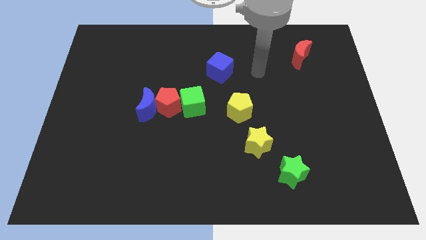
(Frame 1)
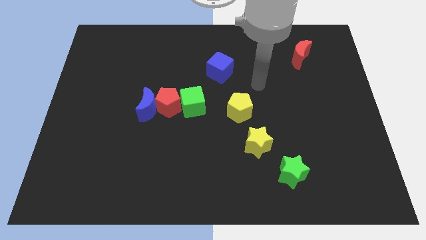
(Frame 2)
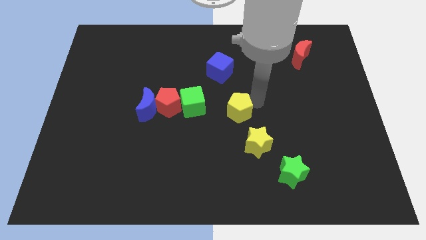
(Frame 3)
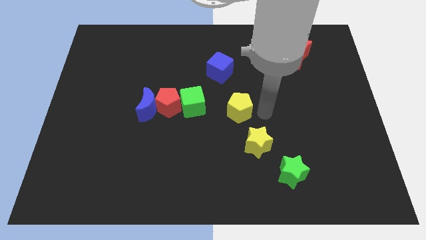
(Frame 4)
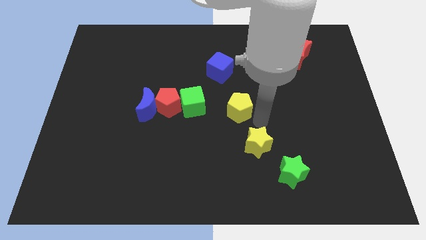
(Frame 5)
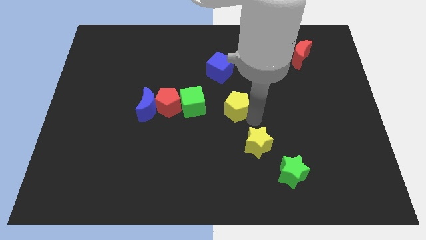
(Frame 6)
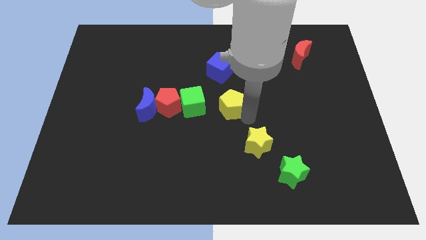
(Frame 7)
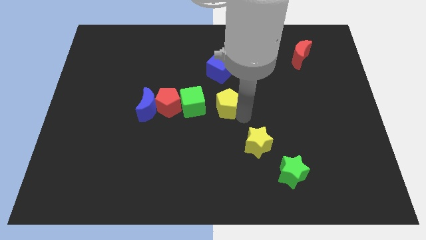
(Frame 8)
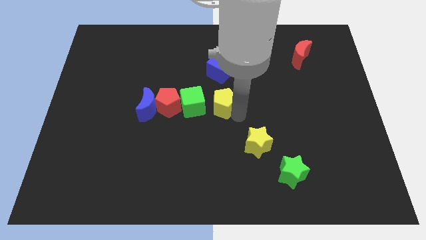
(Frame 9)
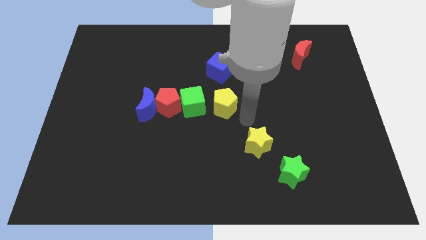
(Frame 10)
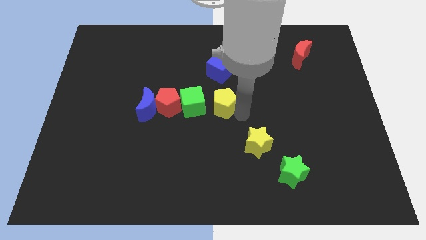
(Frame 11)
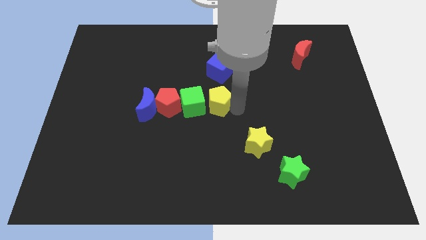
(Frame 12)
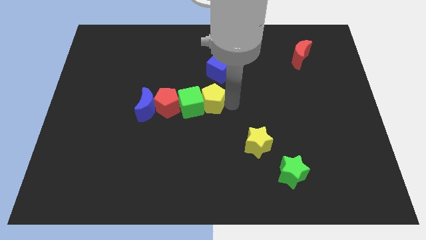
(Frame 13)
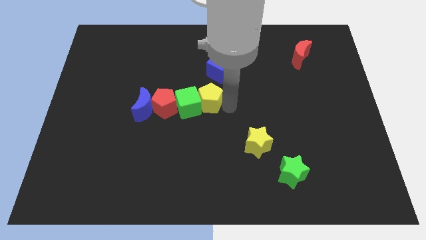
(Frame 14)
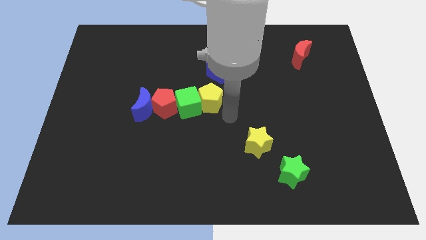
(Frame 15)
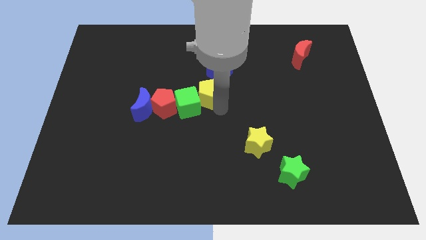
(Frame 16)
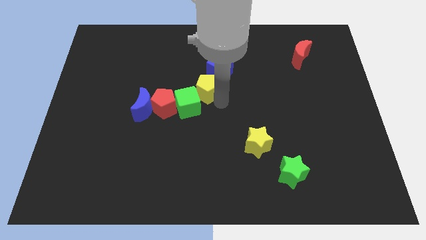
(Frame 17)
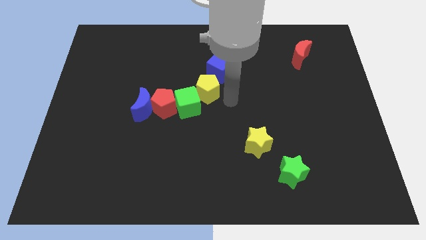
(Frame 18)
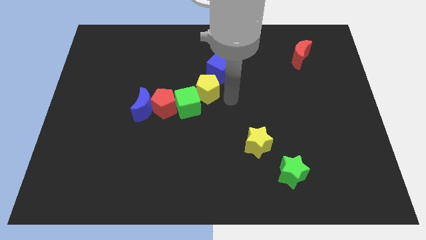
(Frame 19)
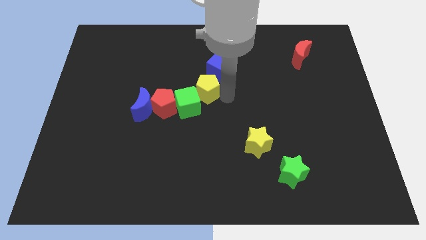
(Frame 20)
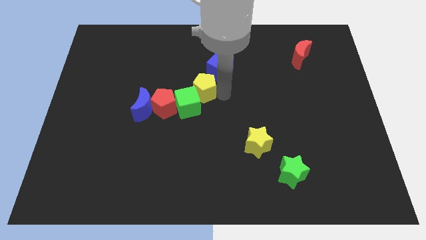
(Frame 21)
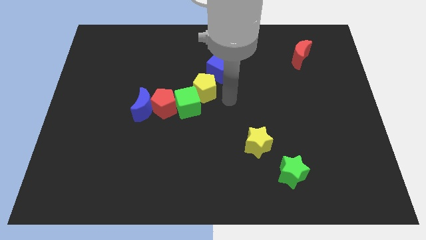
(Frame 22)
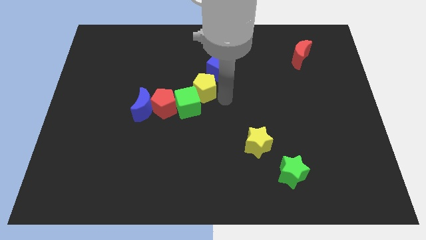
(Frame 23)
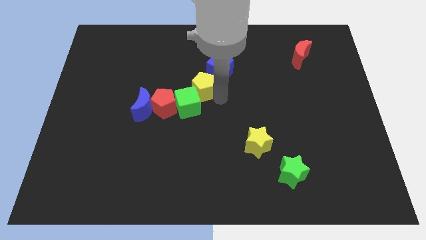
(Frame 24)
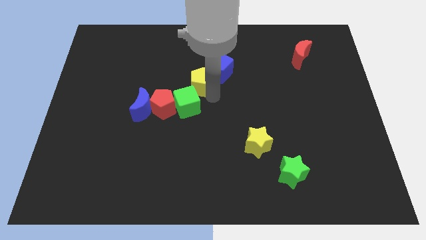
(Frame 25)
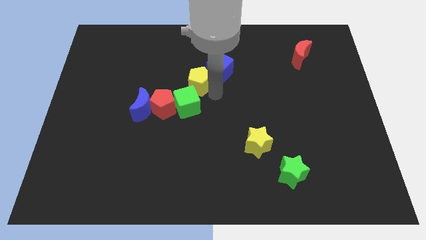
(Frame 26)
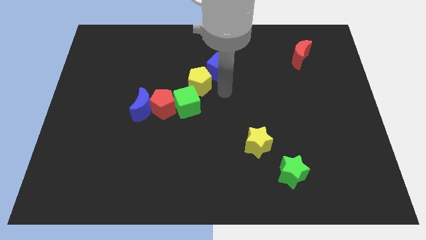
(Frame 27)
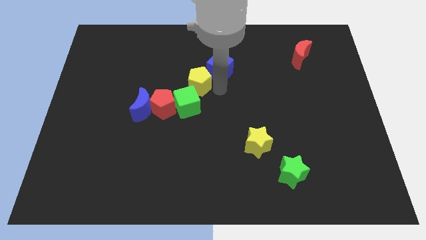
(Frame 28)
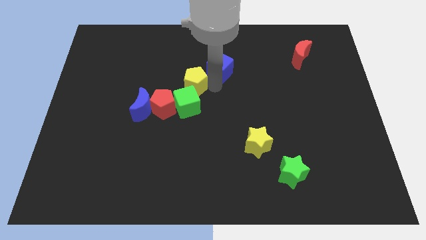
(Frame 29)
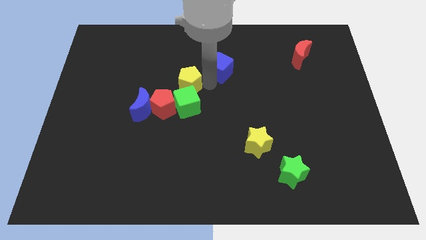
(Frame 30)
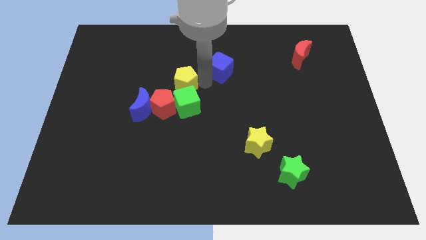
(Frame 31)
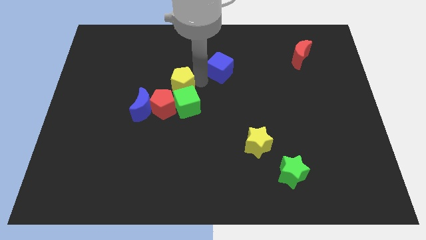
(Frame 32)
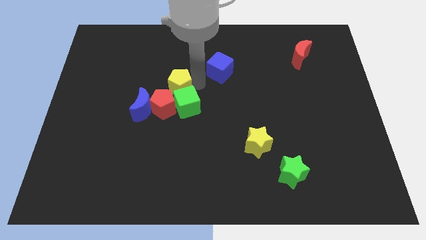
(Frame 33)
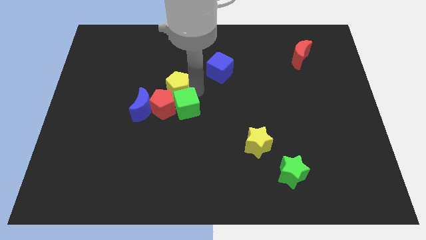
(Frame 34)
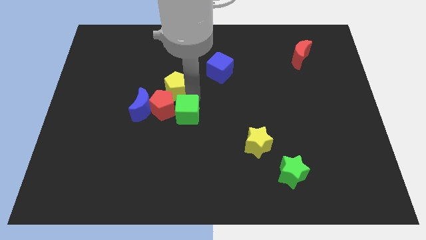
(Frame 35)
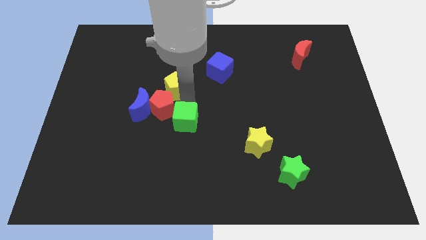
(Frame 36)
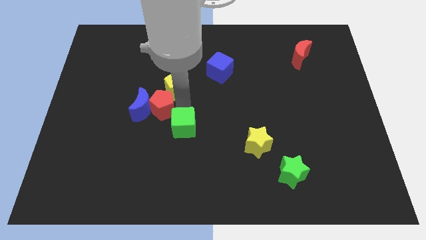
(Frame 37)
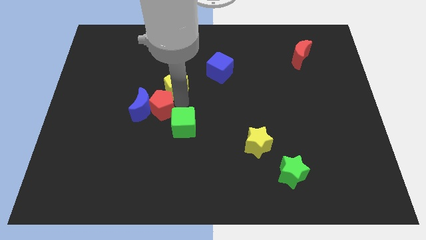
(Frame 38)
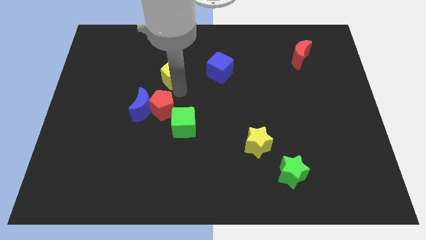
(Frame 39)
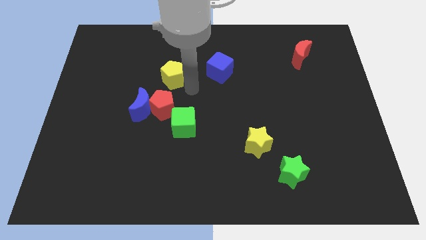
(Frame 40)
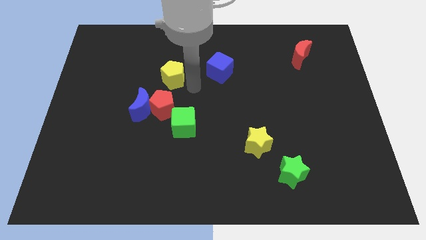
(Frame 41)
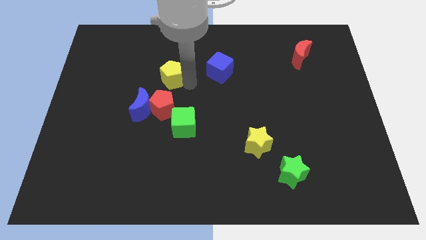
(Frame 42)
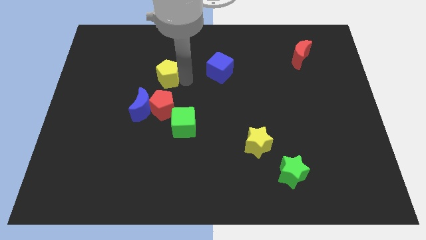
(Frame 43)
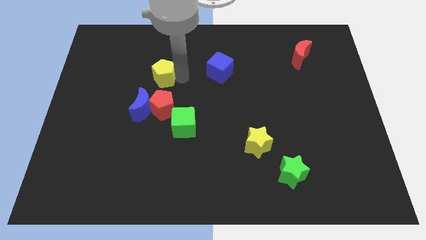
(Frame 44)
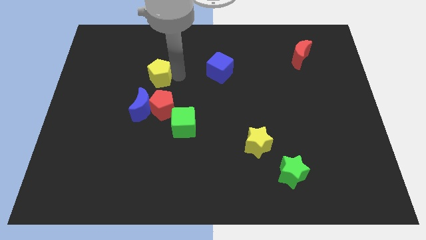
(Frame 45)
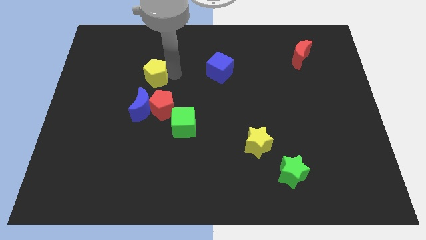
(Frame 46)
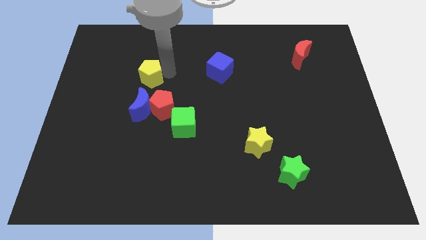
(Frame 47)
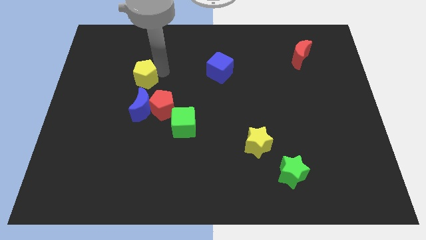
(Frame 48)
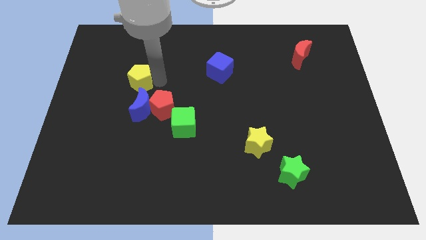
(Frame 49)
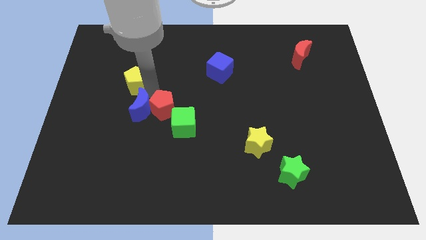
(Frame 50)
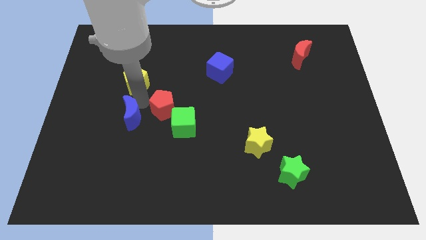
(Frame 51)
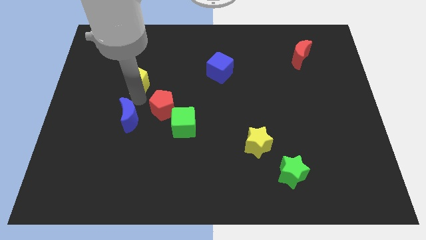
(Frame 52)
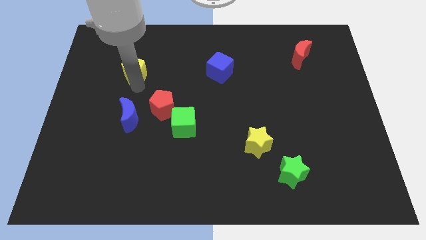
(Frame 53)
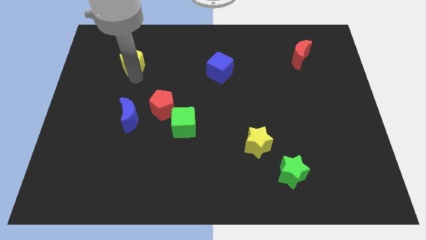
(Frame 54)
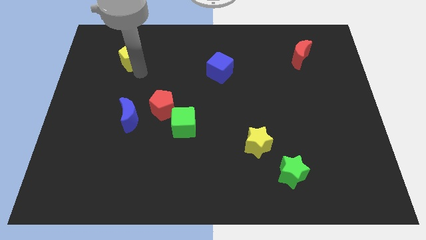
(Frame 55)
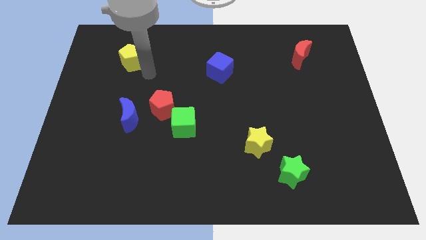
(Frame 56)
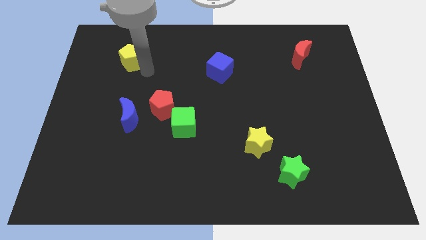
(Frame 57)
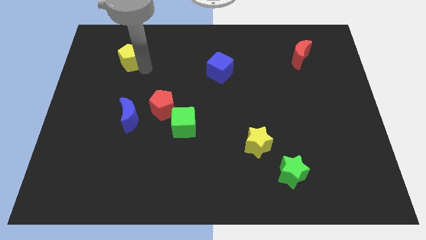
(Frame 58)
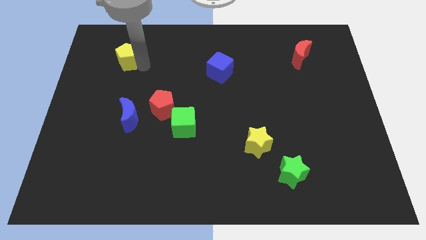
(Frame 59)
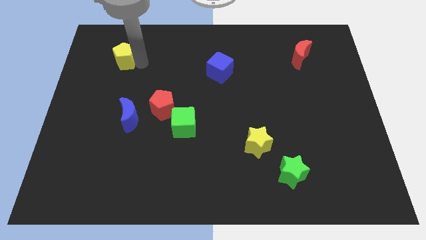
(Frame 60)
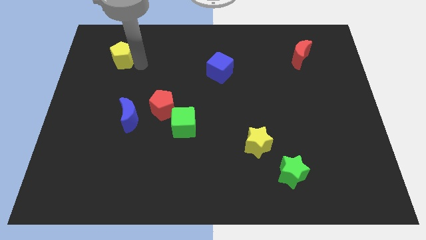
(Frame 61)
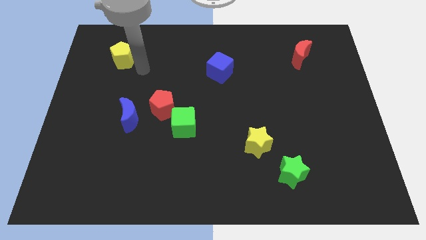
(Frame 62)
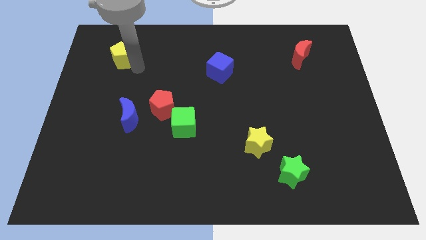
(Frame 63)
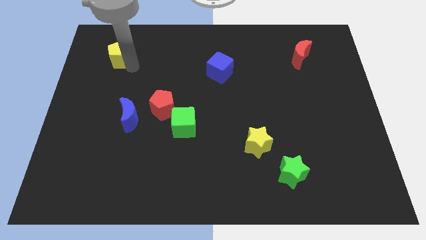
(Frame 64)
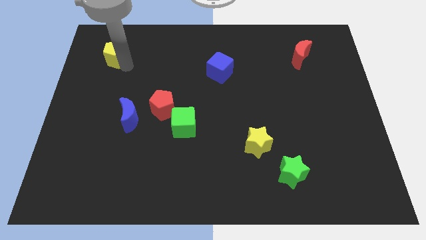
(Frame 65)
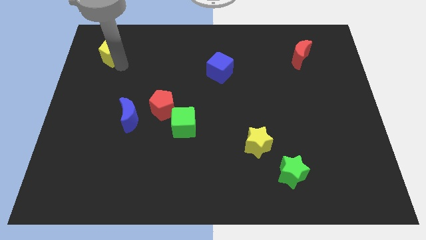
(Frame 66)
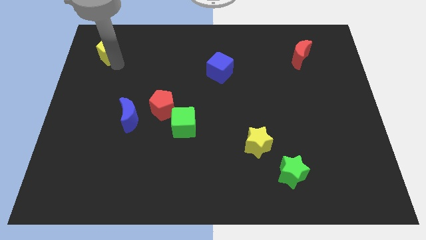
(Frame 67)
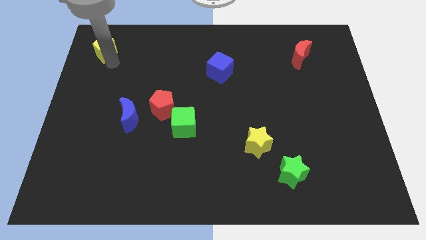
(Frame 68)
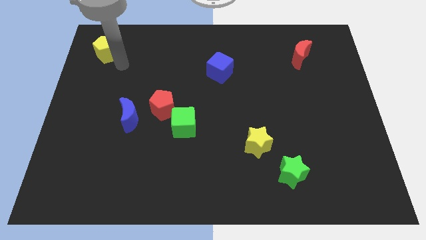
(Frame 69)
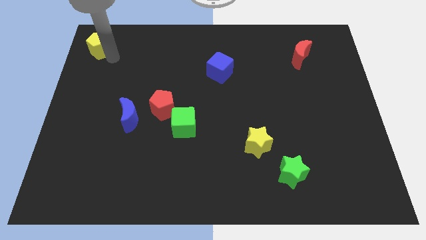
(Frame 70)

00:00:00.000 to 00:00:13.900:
push the yellow pentagon to the upper left corner

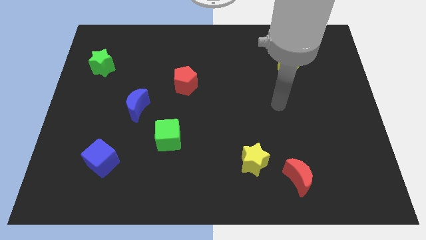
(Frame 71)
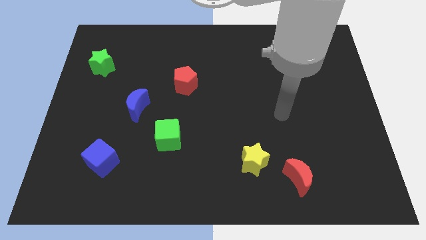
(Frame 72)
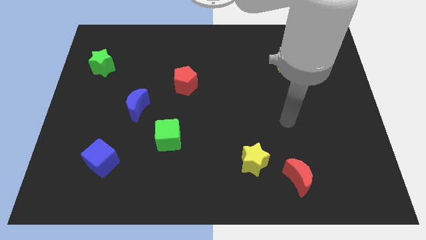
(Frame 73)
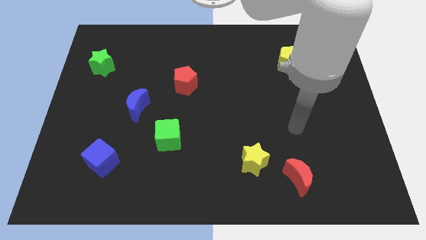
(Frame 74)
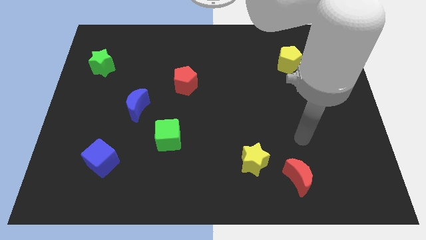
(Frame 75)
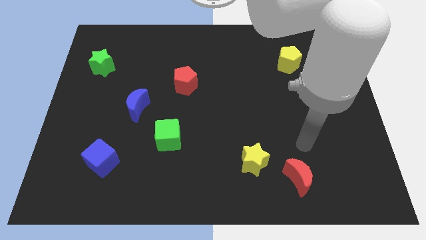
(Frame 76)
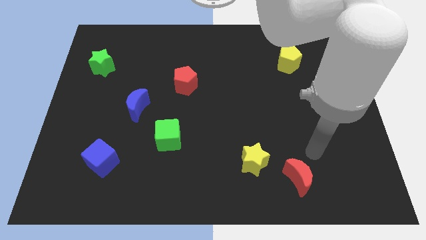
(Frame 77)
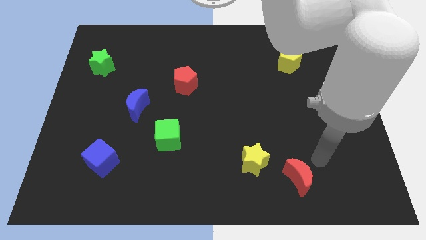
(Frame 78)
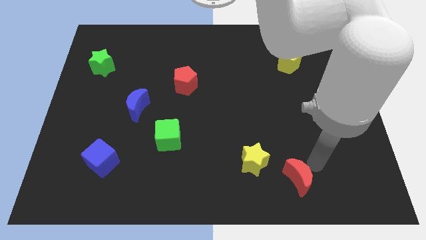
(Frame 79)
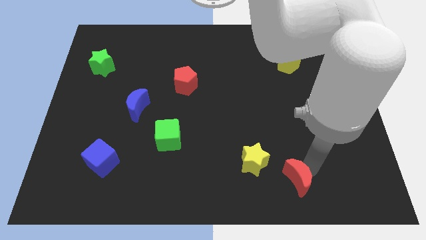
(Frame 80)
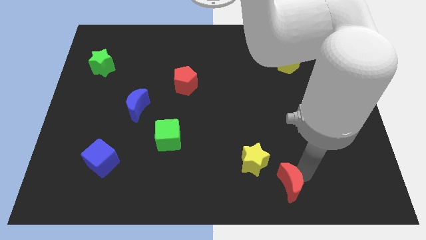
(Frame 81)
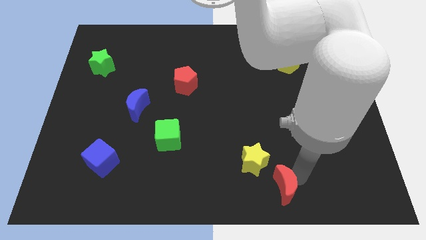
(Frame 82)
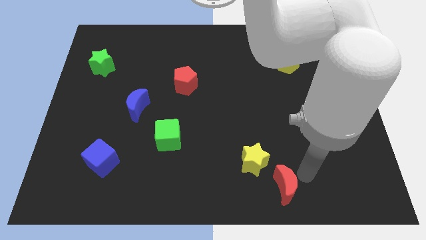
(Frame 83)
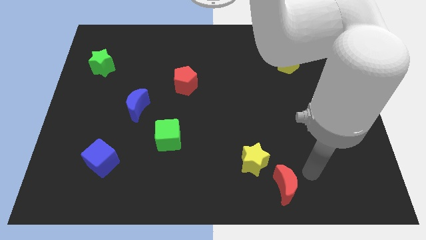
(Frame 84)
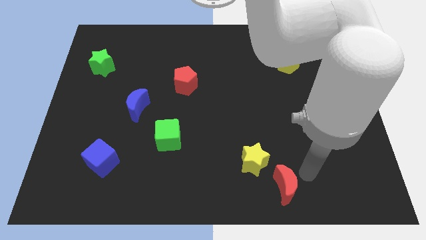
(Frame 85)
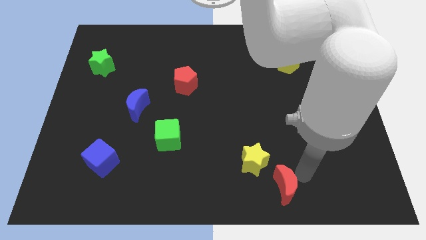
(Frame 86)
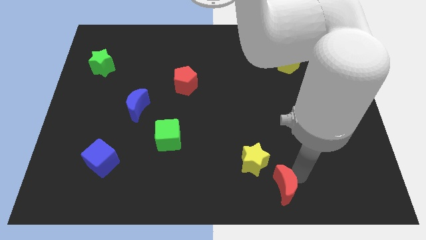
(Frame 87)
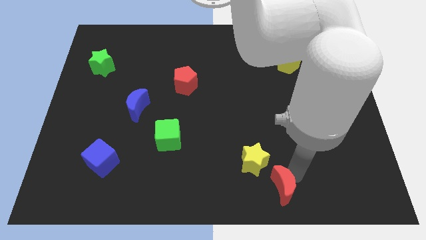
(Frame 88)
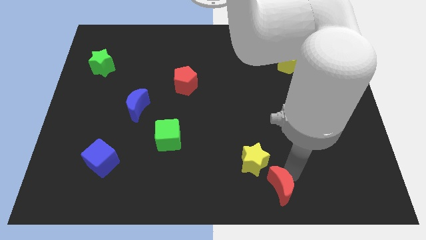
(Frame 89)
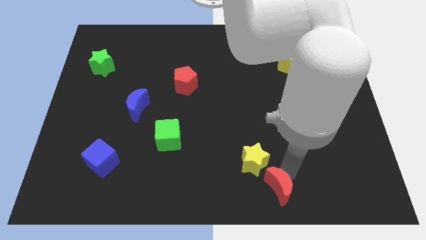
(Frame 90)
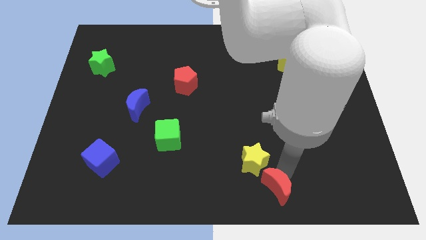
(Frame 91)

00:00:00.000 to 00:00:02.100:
slide the red moon to the bottom side
